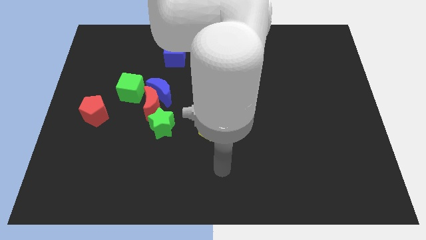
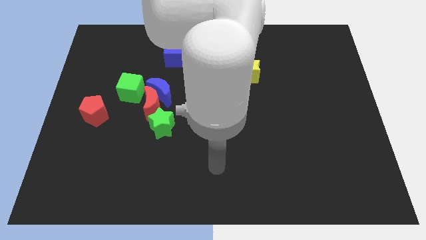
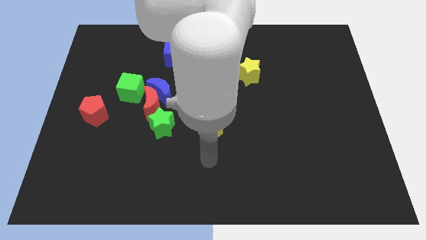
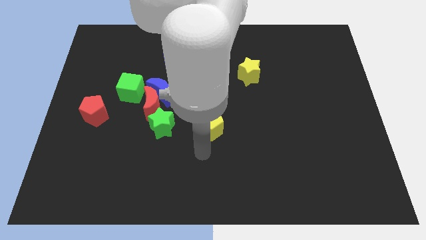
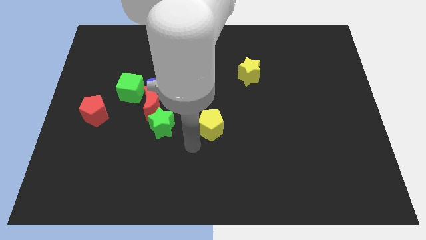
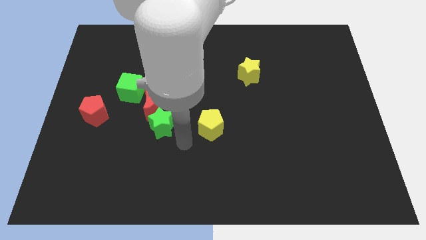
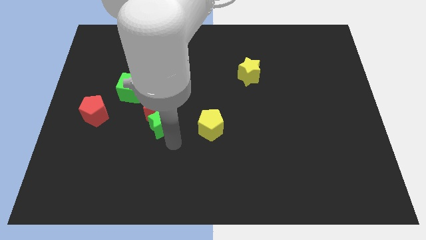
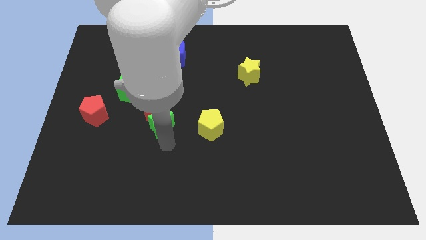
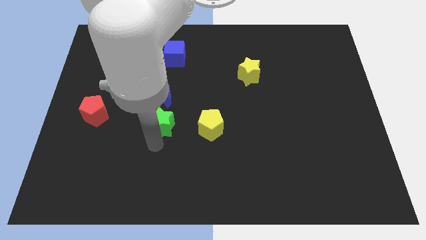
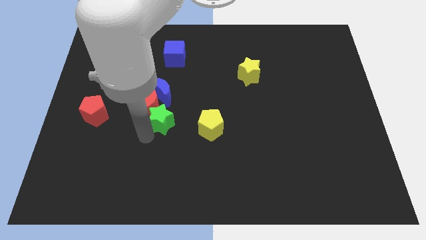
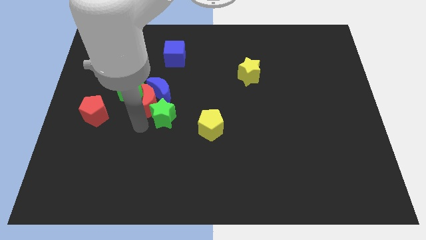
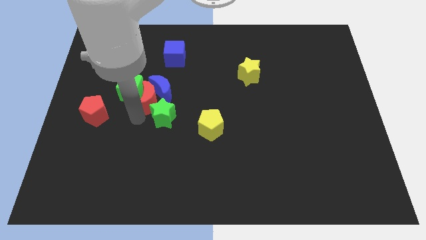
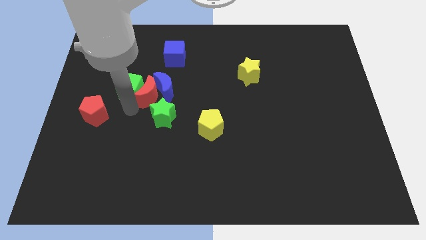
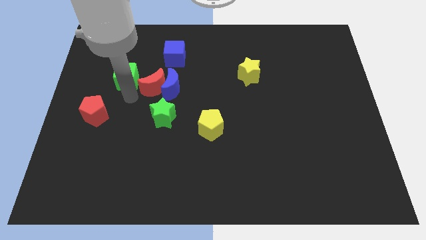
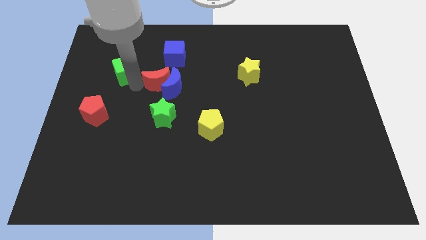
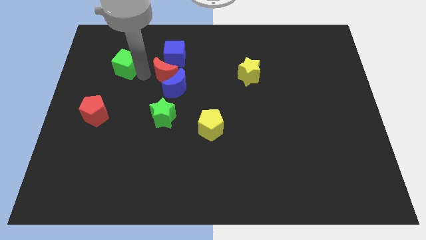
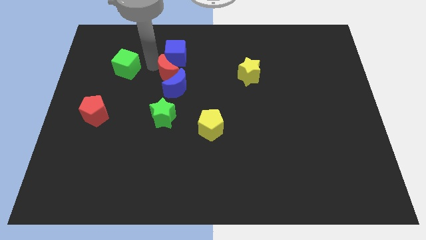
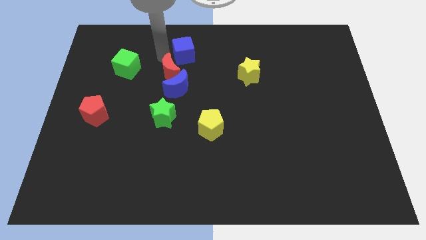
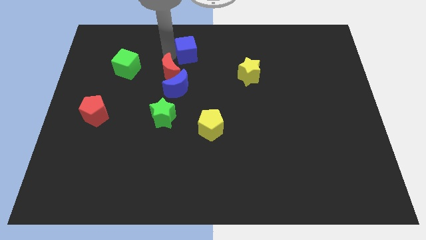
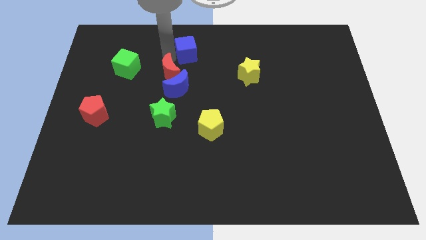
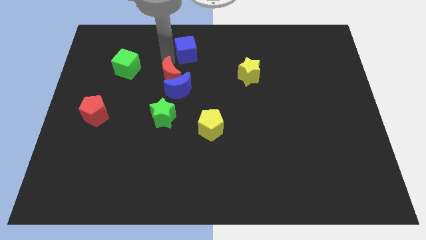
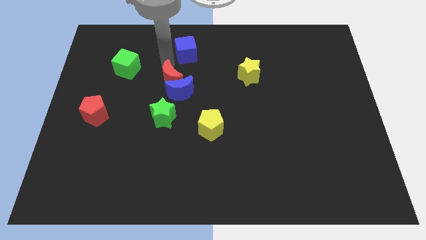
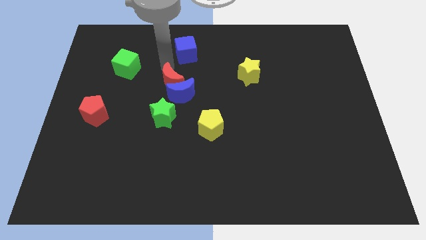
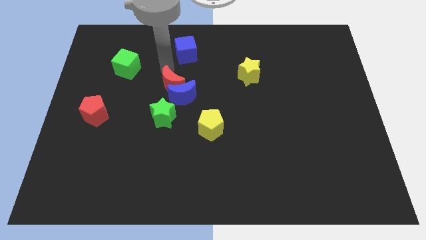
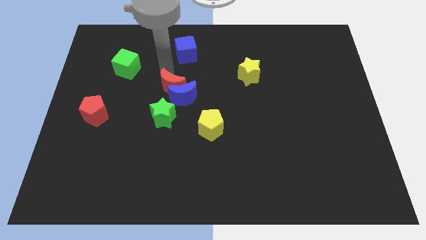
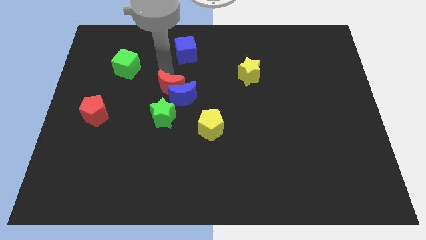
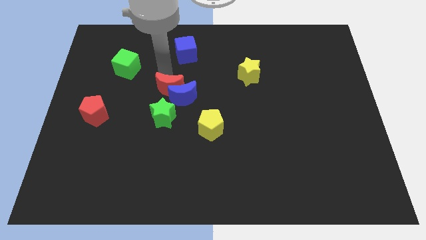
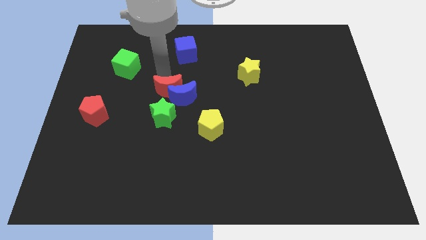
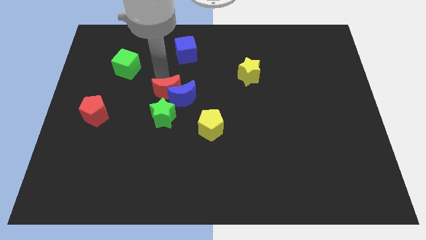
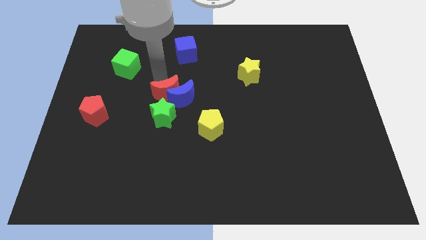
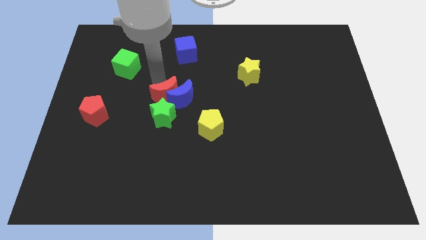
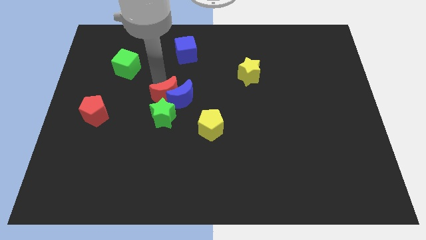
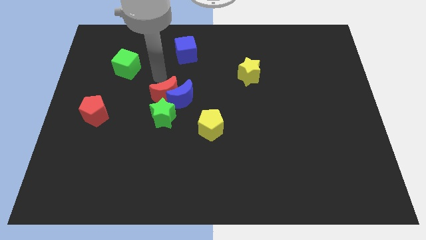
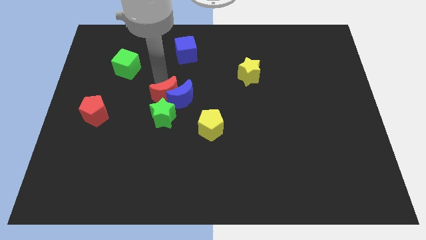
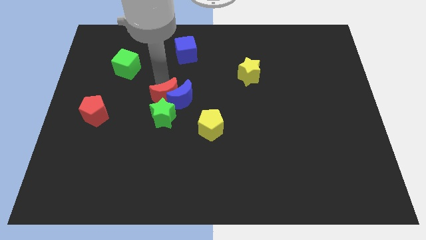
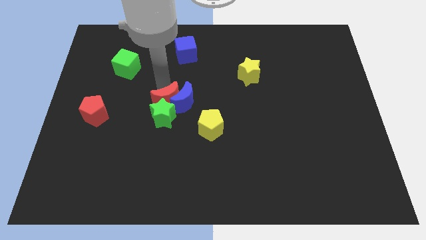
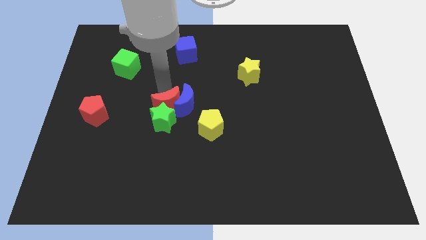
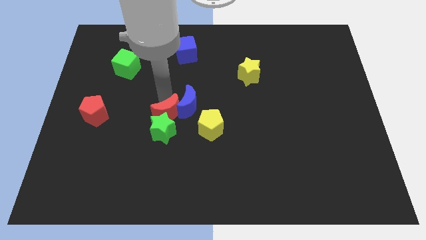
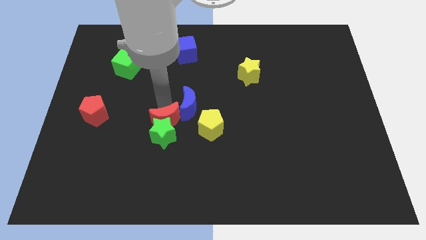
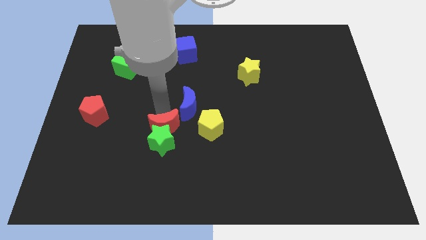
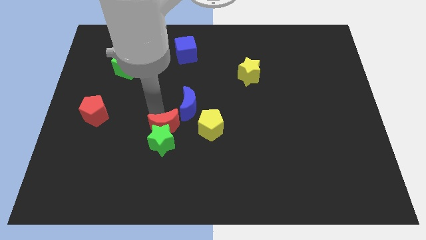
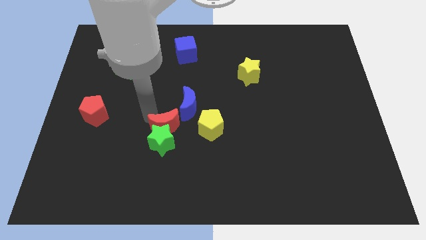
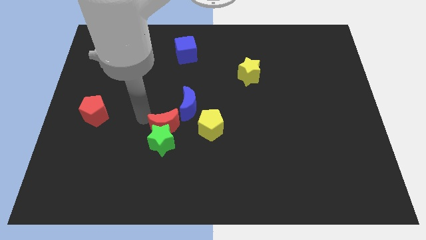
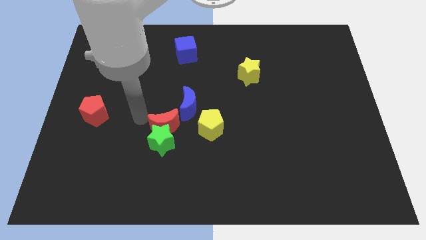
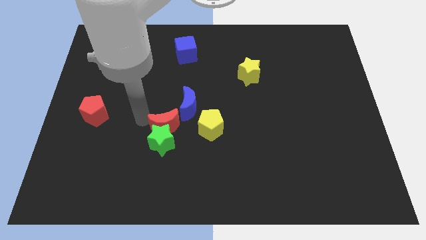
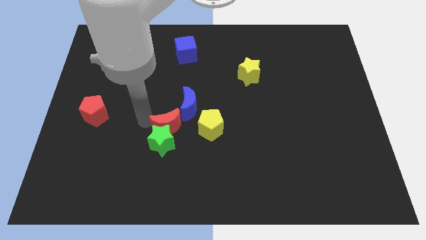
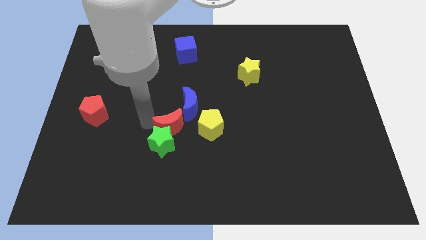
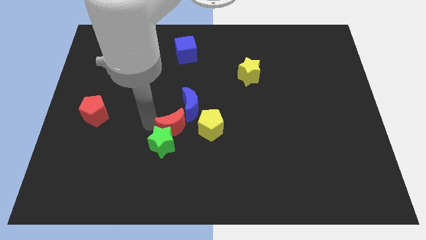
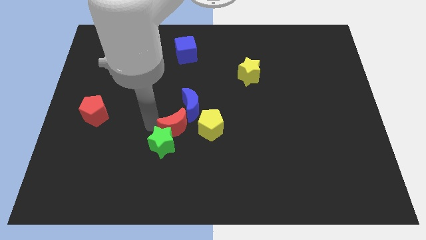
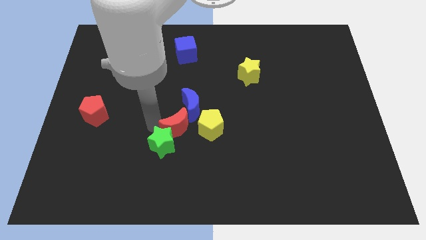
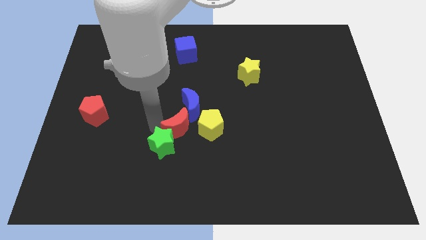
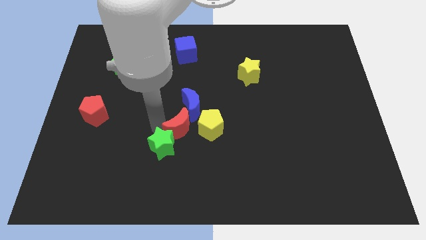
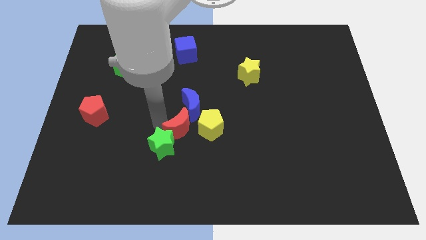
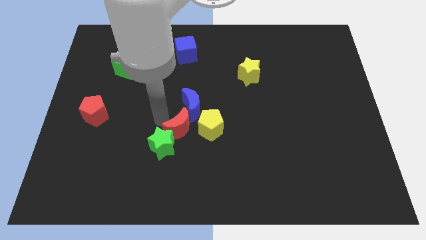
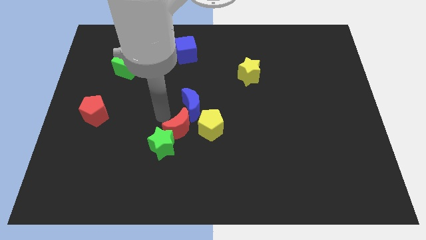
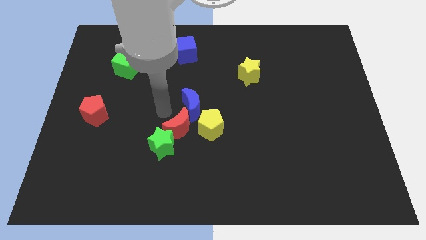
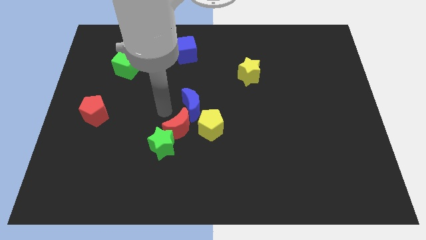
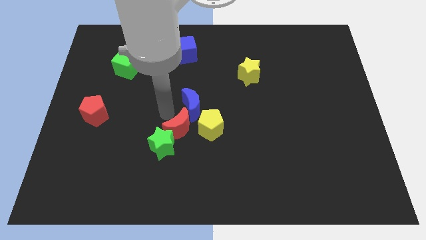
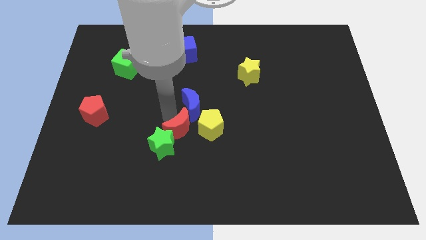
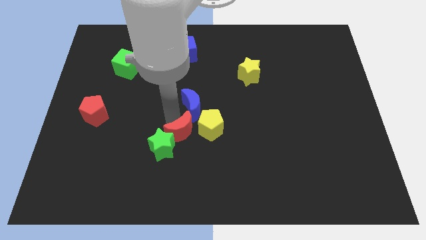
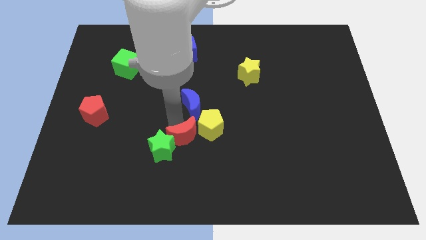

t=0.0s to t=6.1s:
move the red moon away from the blue moon, green star, and green cube

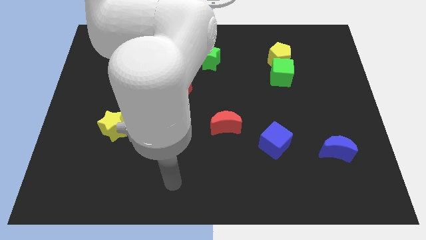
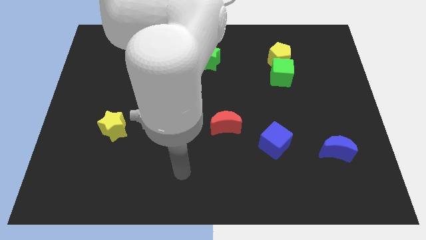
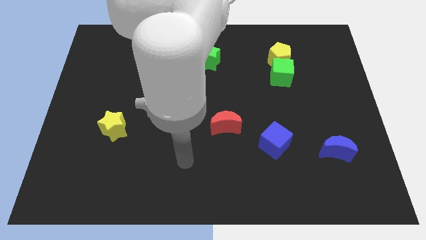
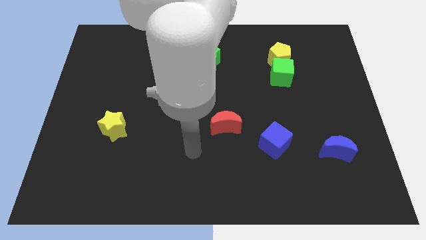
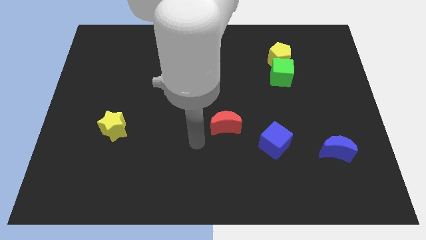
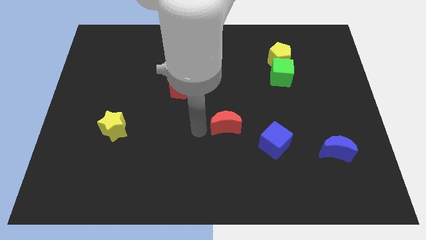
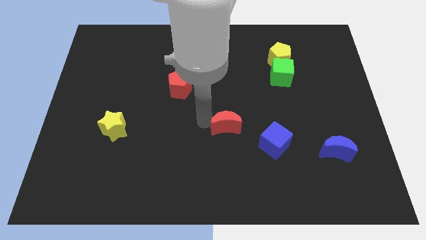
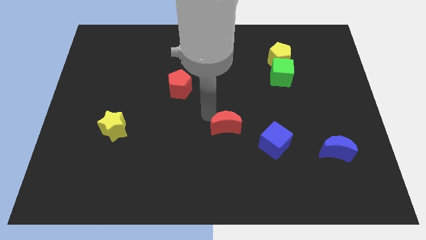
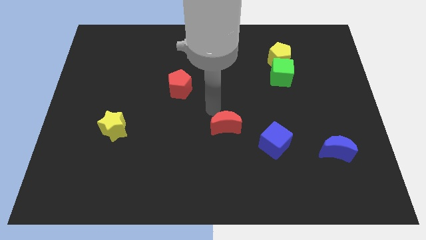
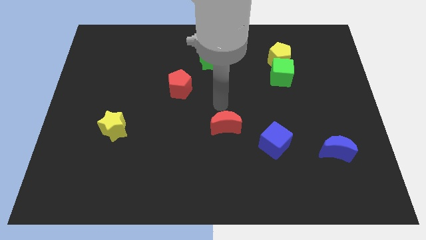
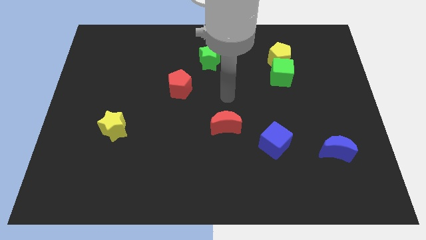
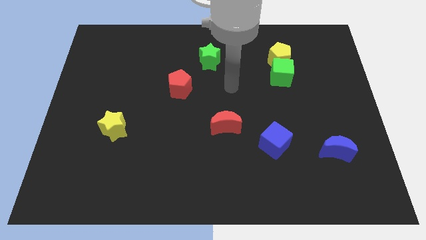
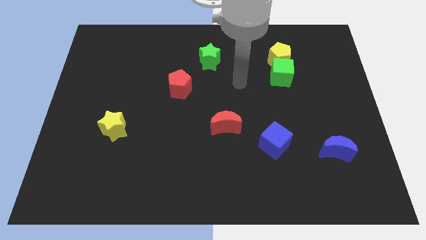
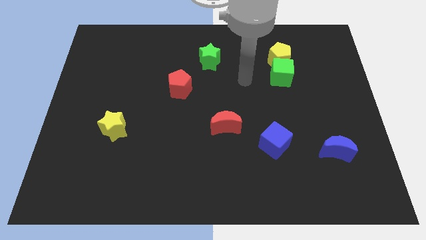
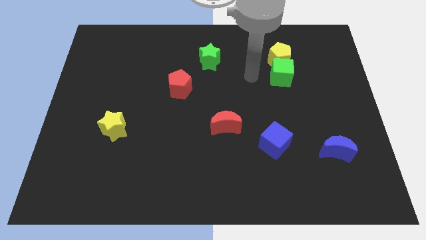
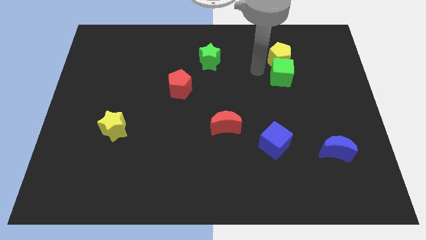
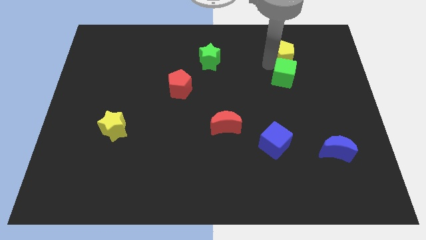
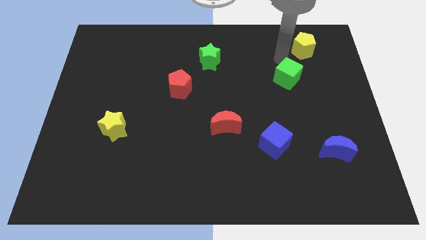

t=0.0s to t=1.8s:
separate the green cube from the yellow pentagon

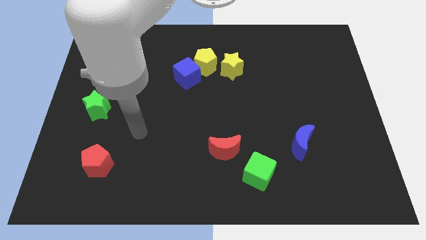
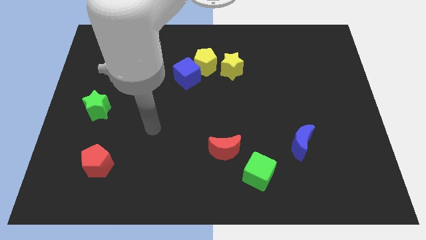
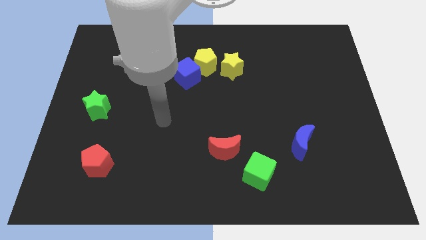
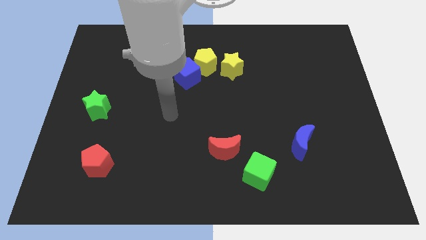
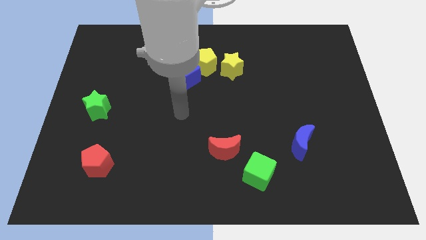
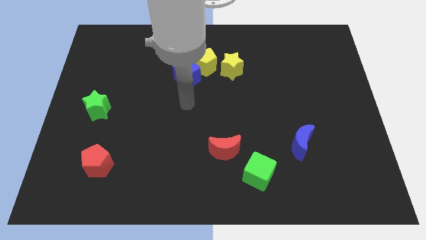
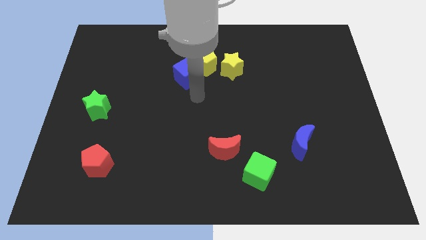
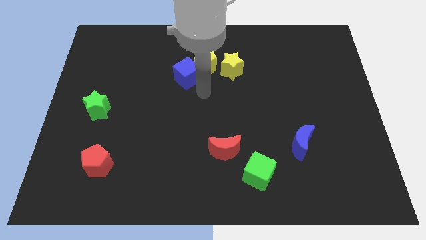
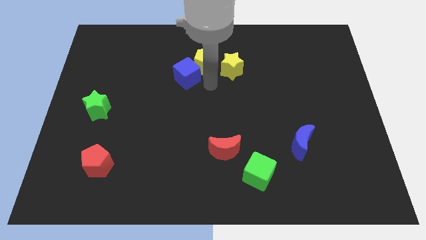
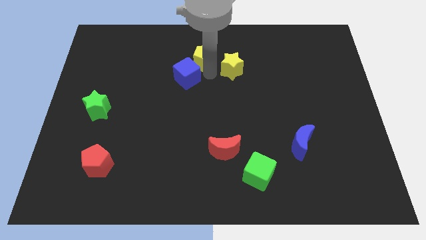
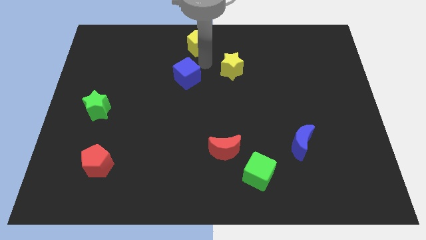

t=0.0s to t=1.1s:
pull the blue cube apart from the yellow pentagon

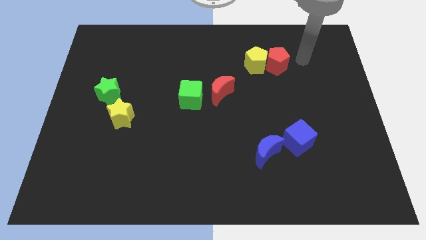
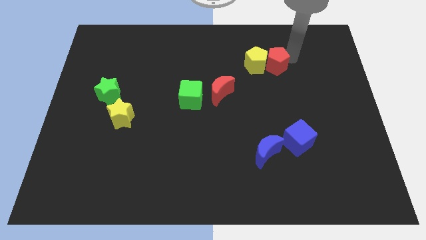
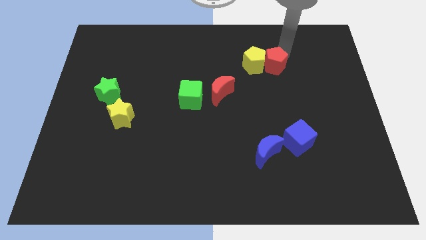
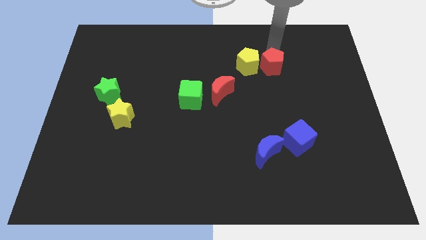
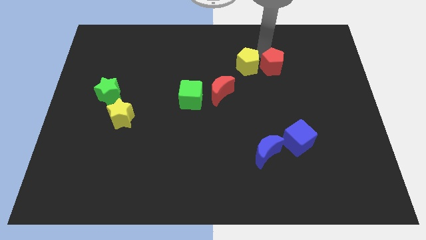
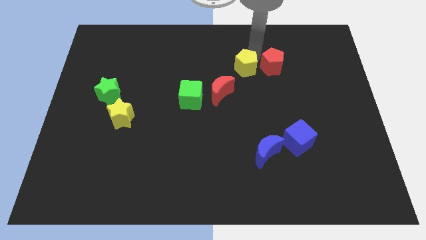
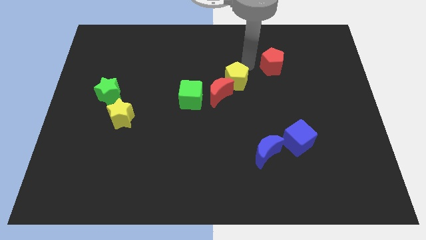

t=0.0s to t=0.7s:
pull the red pentagon apart from the yellow pentagon
